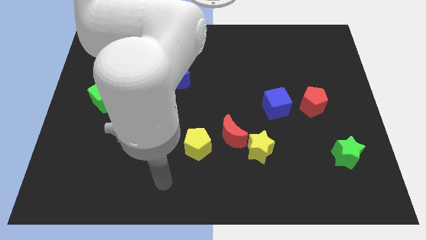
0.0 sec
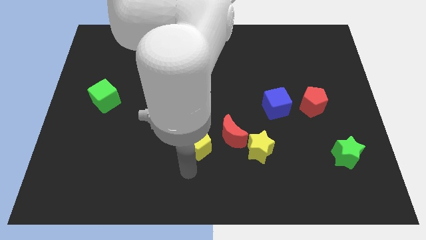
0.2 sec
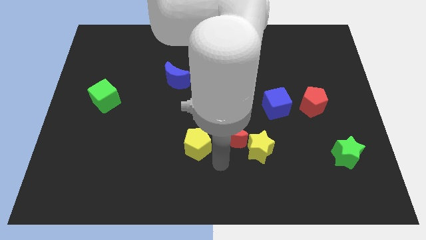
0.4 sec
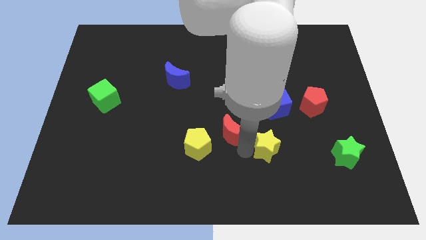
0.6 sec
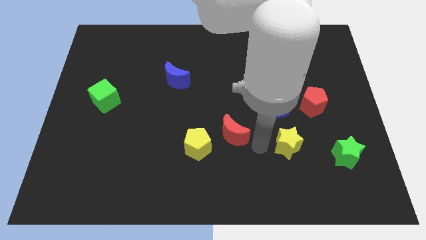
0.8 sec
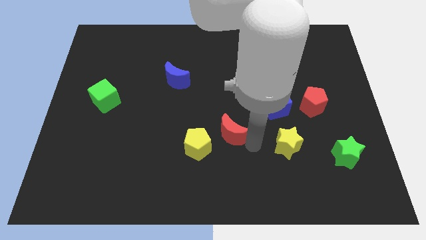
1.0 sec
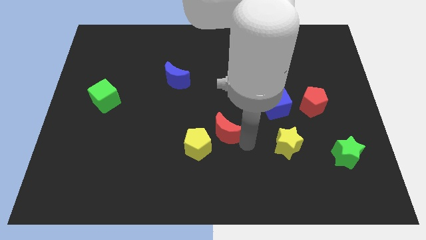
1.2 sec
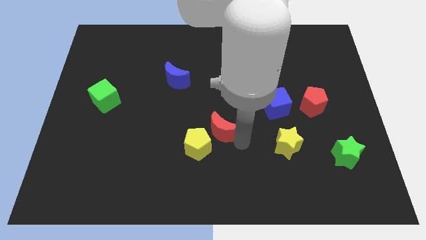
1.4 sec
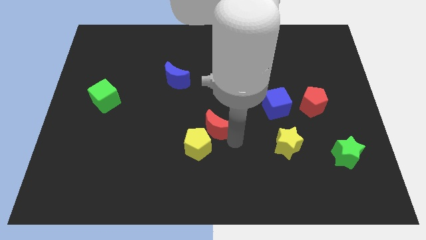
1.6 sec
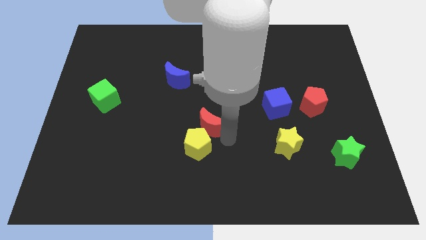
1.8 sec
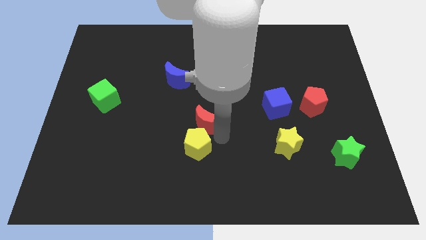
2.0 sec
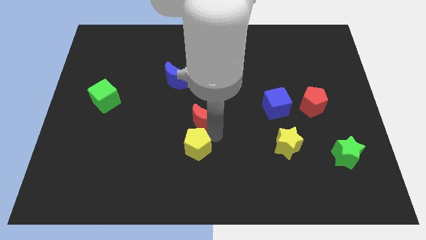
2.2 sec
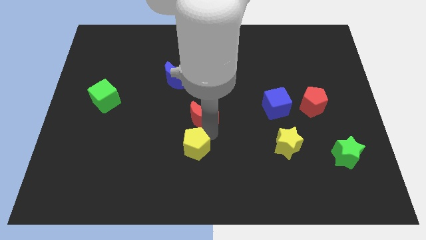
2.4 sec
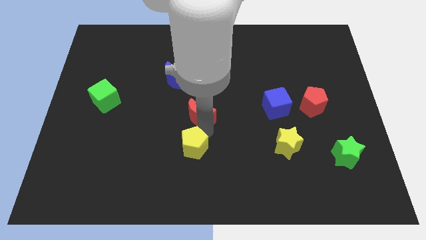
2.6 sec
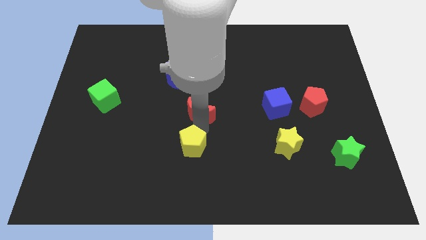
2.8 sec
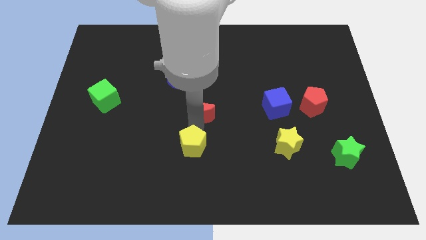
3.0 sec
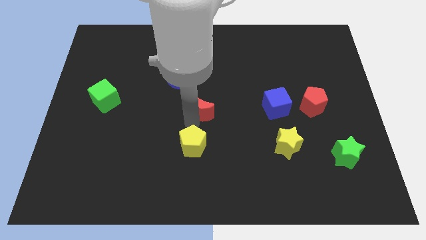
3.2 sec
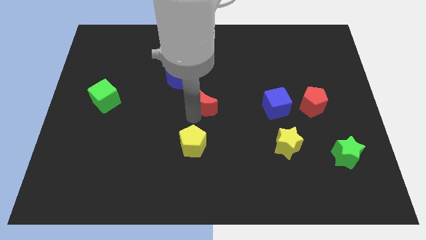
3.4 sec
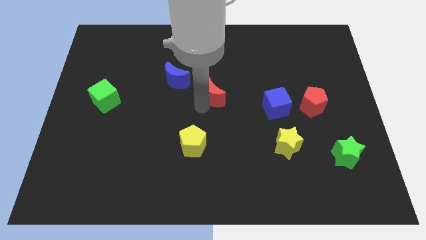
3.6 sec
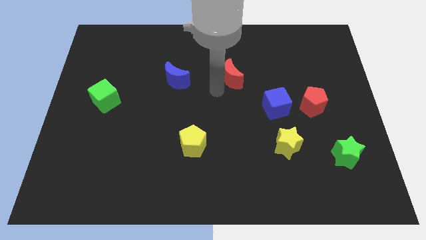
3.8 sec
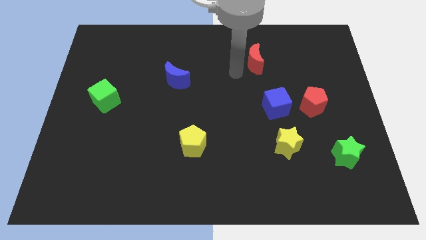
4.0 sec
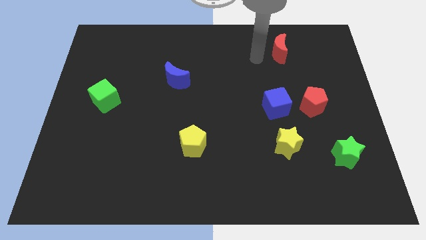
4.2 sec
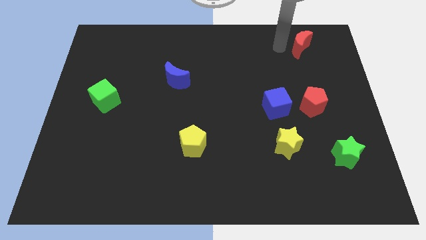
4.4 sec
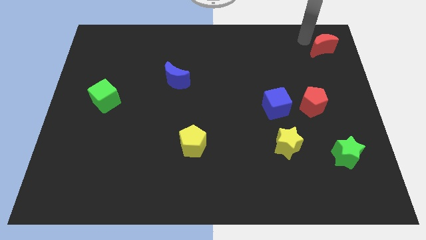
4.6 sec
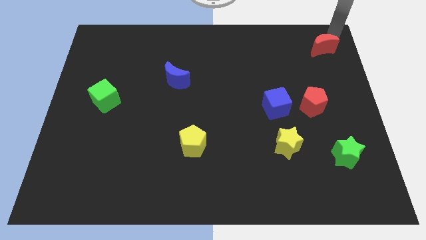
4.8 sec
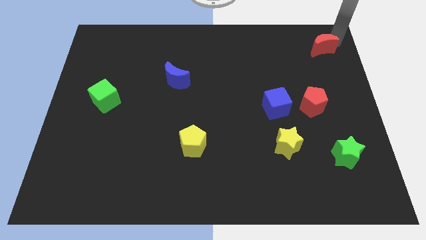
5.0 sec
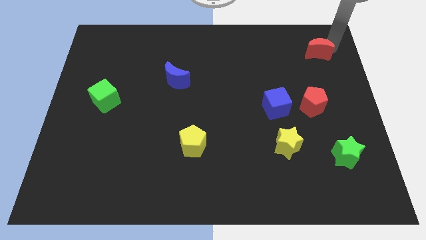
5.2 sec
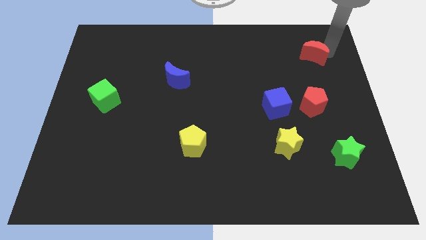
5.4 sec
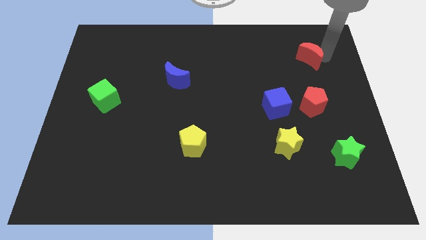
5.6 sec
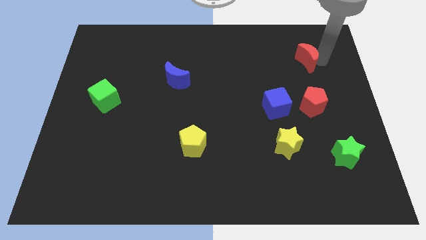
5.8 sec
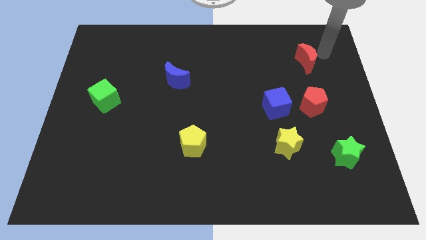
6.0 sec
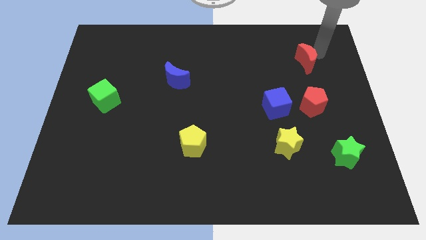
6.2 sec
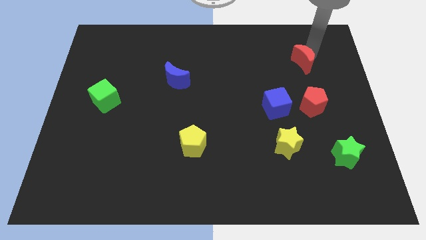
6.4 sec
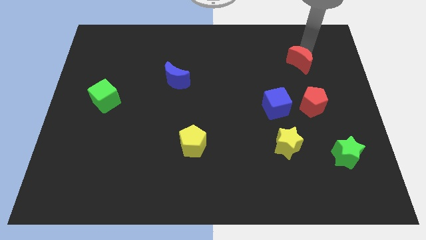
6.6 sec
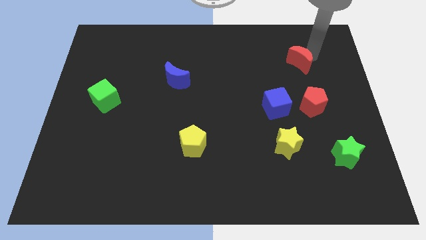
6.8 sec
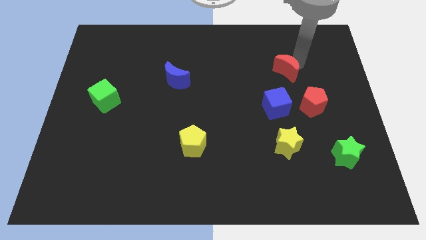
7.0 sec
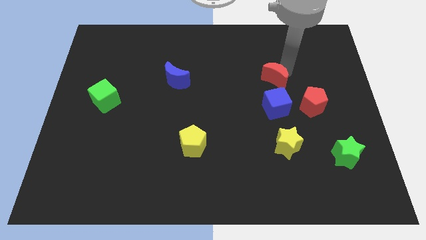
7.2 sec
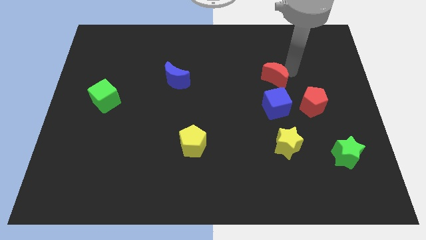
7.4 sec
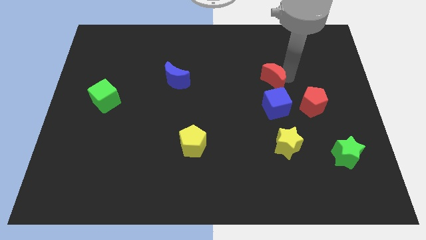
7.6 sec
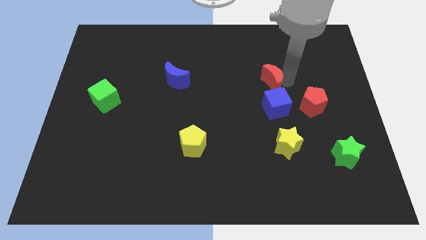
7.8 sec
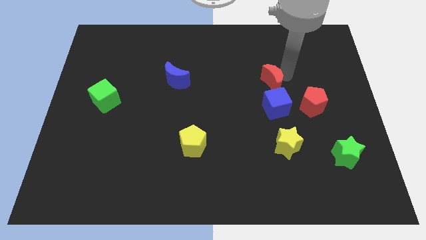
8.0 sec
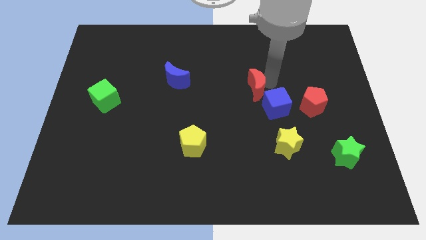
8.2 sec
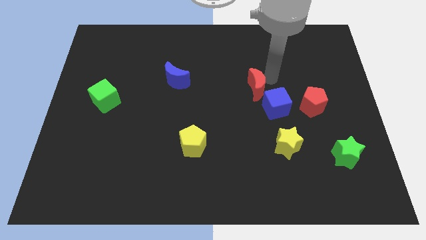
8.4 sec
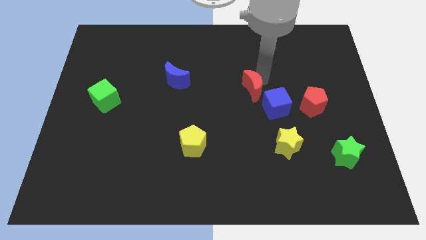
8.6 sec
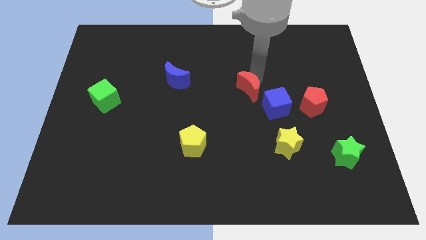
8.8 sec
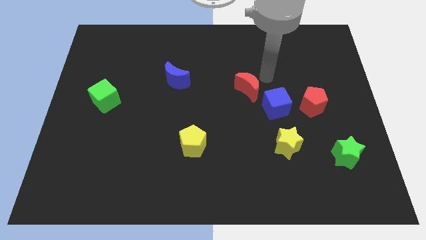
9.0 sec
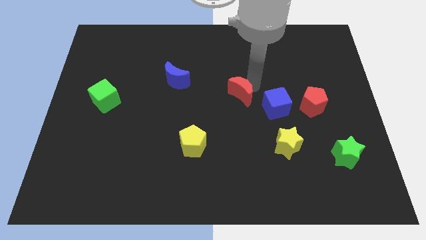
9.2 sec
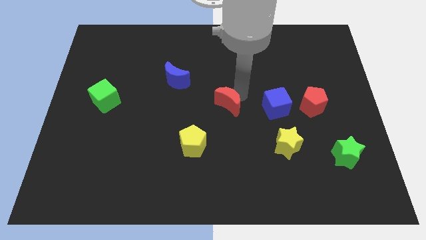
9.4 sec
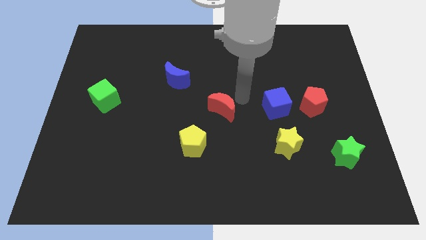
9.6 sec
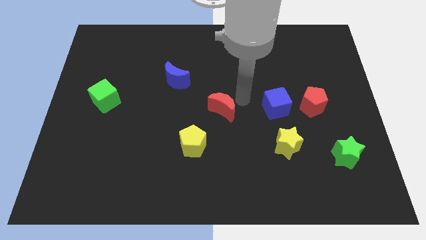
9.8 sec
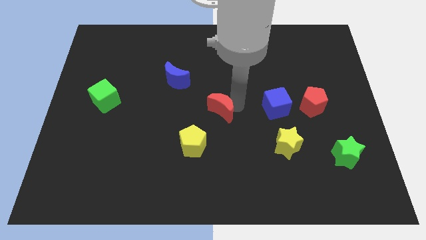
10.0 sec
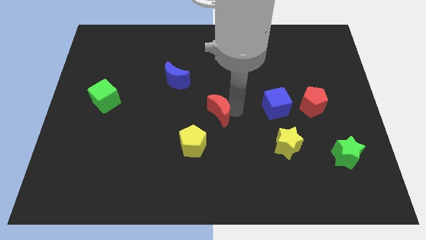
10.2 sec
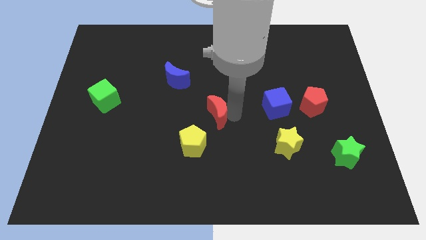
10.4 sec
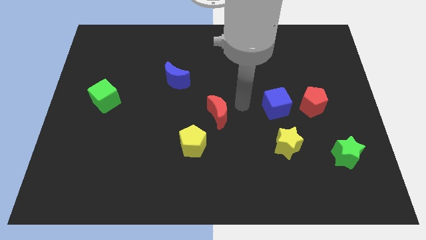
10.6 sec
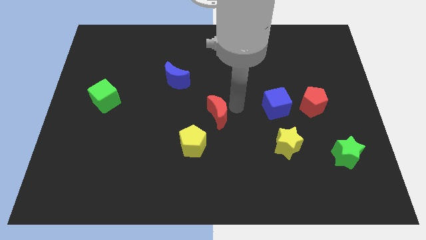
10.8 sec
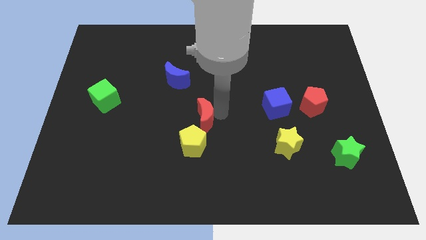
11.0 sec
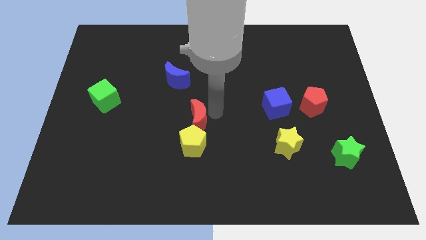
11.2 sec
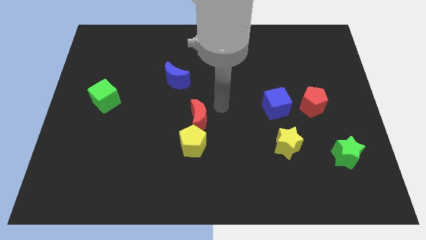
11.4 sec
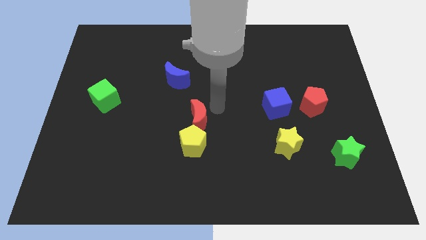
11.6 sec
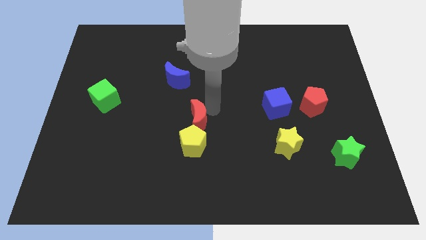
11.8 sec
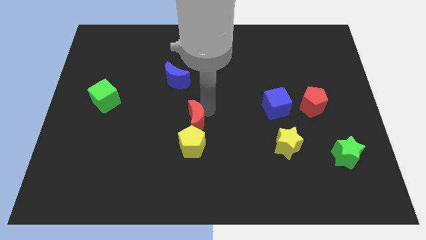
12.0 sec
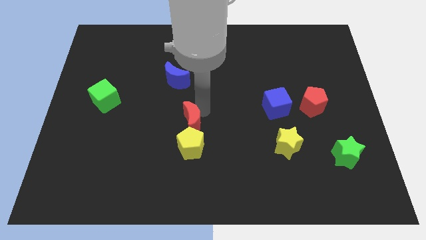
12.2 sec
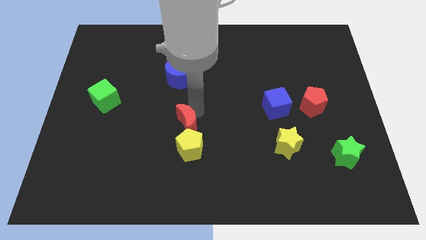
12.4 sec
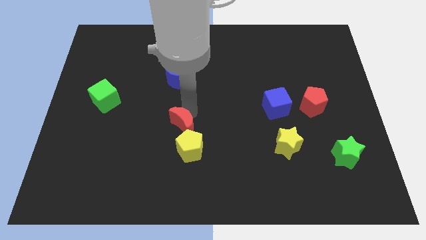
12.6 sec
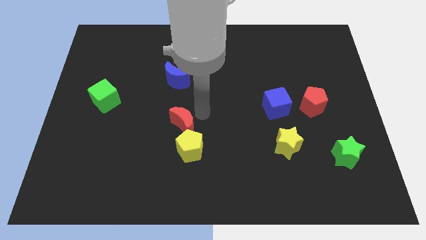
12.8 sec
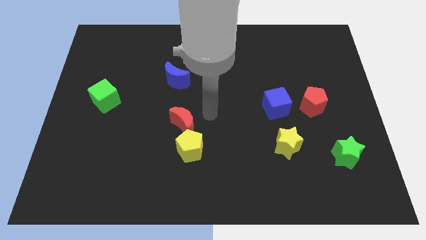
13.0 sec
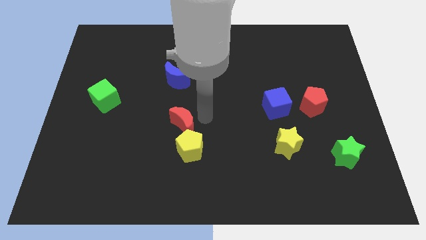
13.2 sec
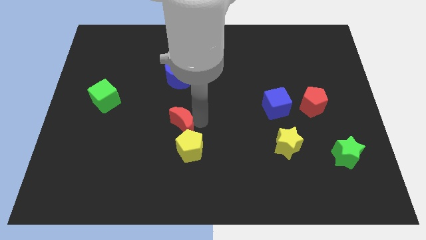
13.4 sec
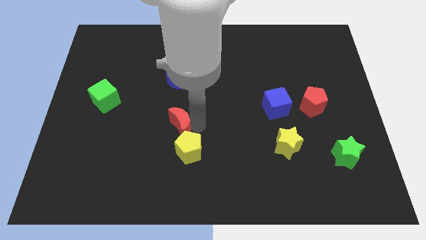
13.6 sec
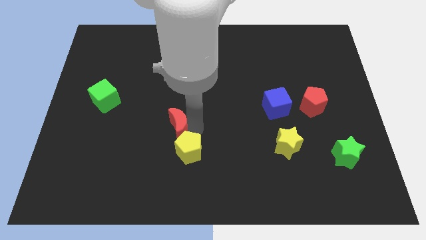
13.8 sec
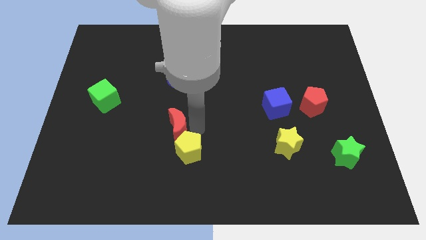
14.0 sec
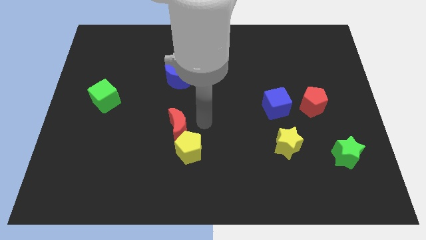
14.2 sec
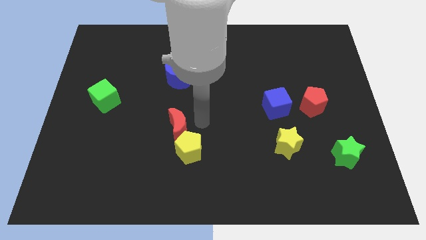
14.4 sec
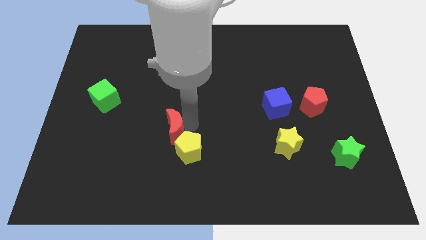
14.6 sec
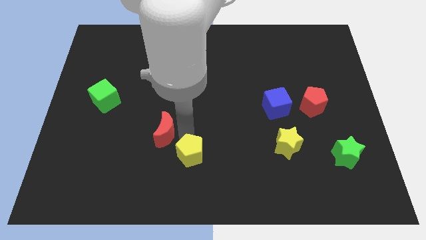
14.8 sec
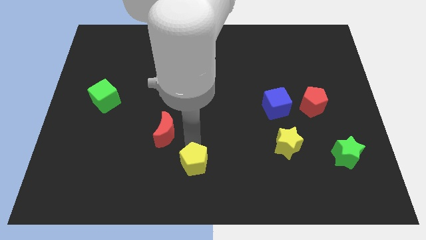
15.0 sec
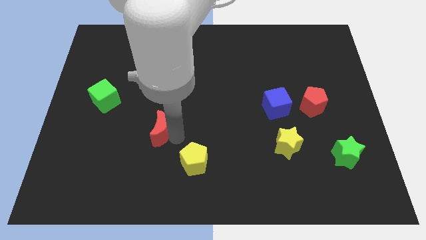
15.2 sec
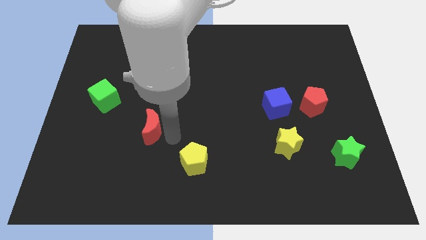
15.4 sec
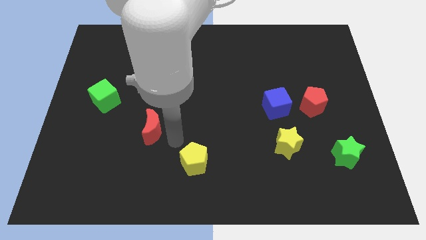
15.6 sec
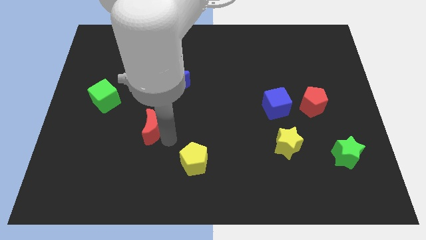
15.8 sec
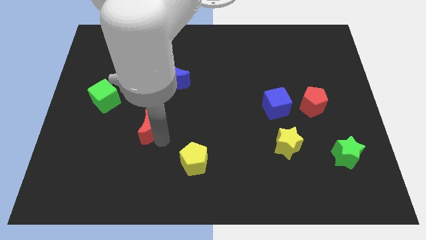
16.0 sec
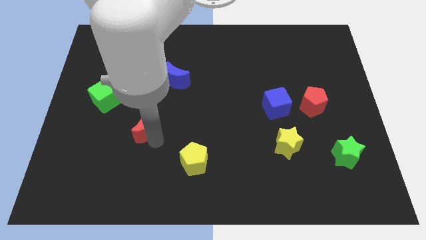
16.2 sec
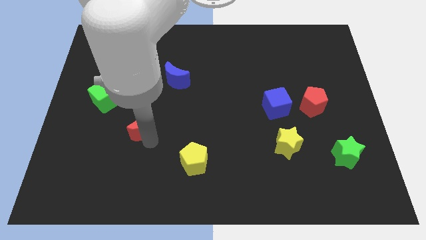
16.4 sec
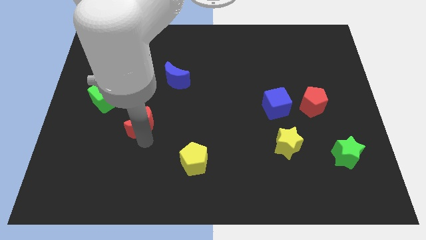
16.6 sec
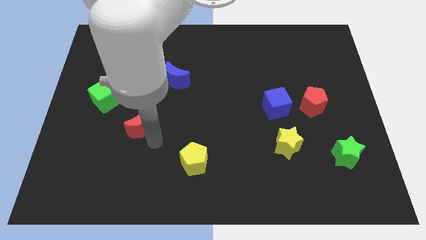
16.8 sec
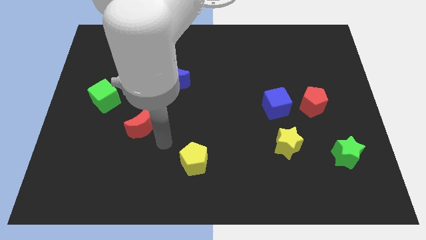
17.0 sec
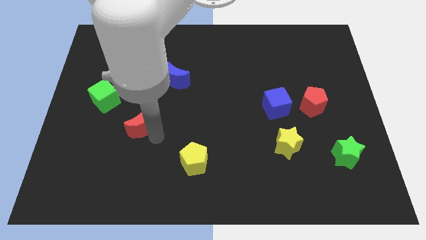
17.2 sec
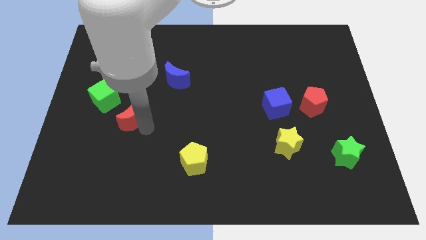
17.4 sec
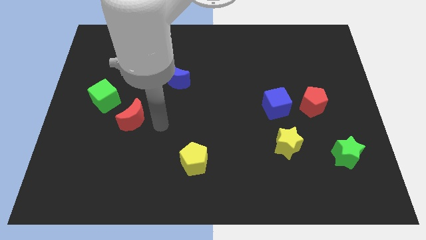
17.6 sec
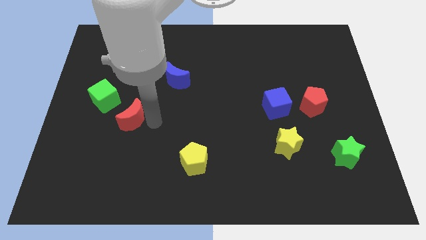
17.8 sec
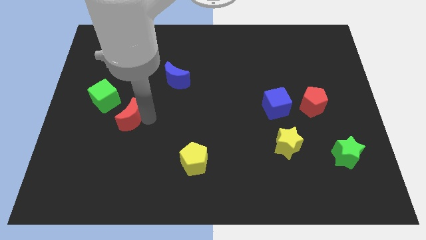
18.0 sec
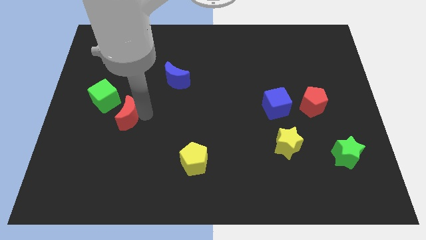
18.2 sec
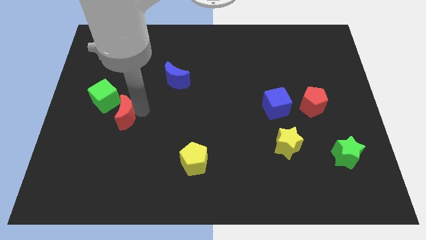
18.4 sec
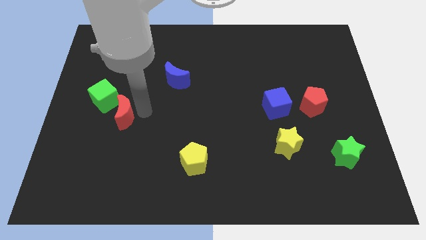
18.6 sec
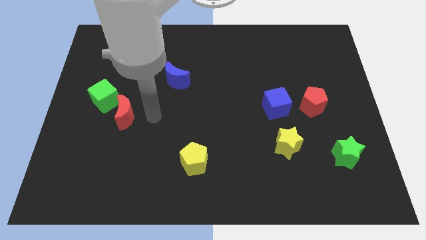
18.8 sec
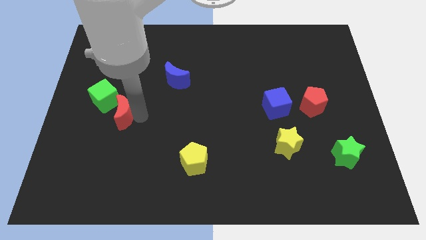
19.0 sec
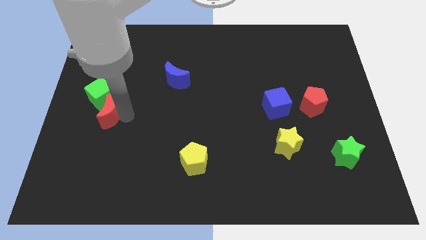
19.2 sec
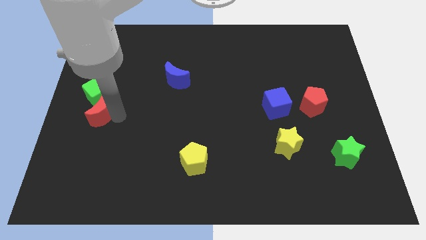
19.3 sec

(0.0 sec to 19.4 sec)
push the red moon to the left side
